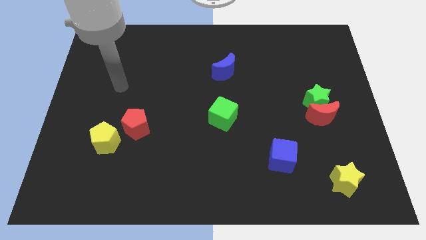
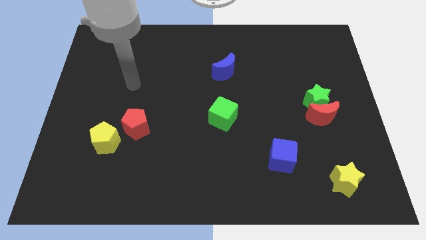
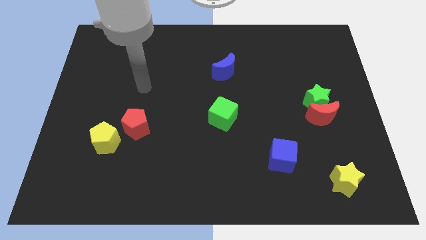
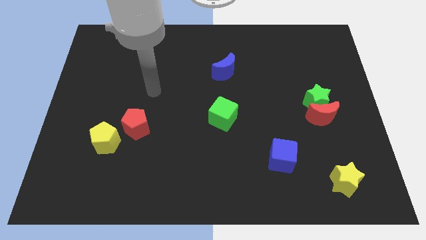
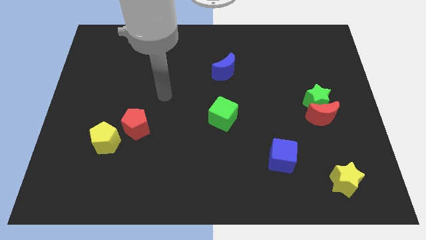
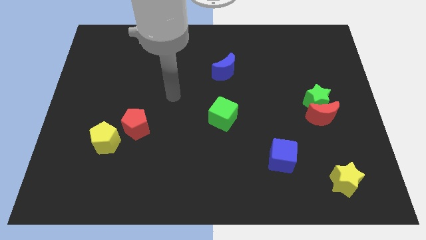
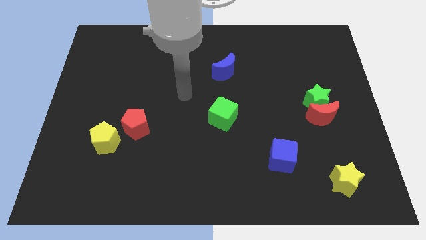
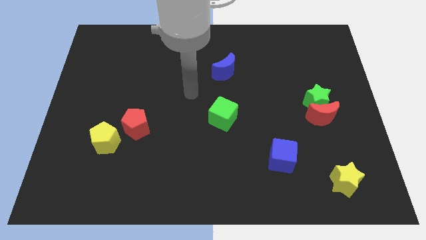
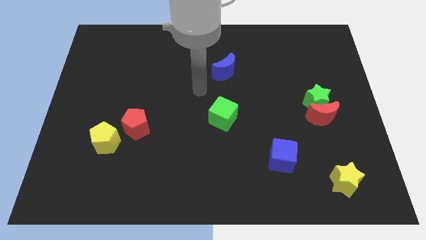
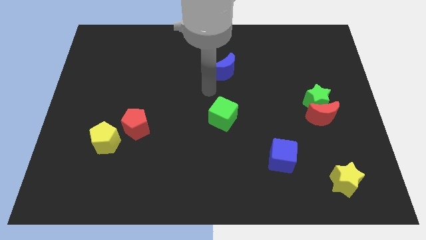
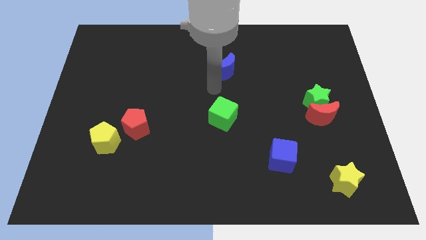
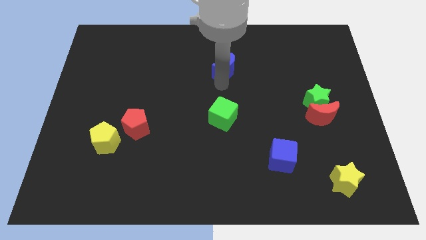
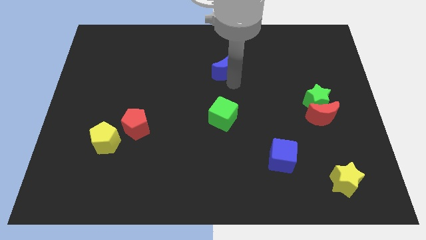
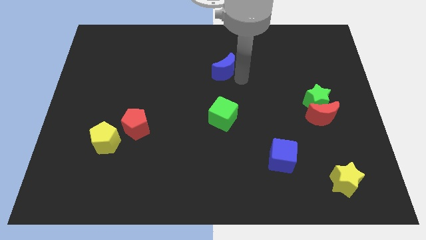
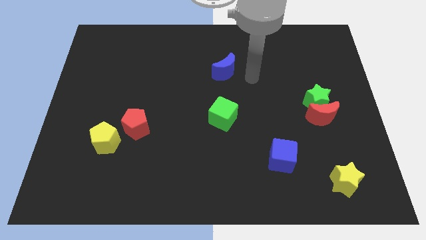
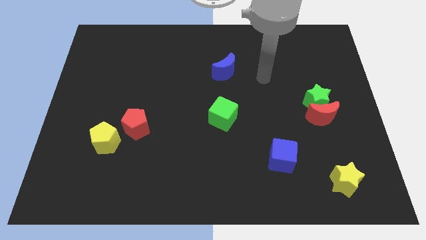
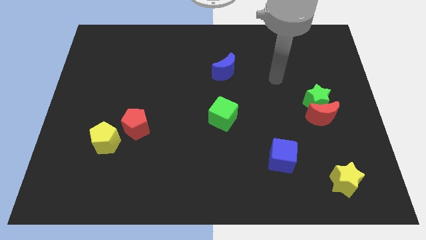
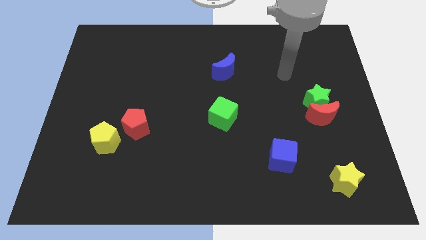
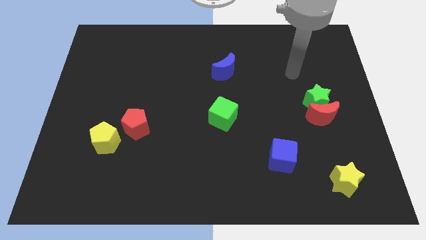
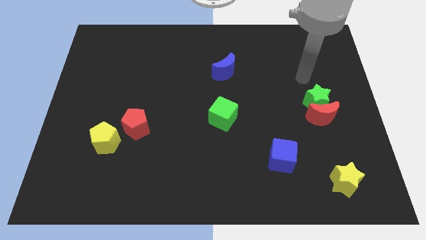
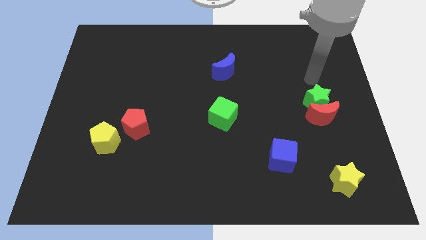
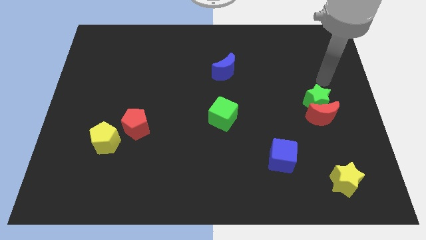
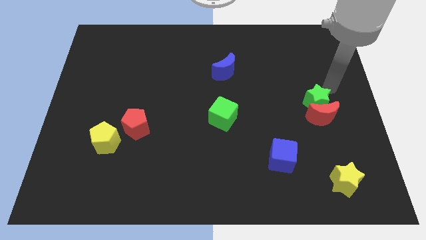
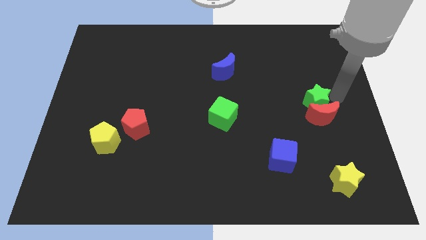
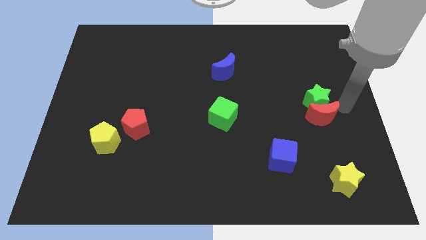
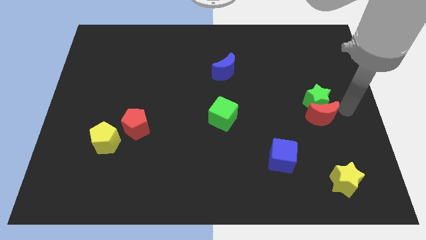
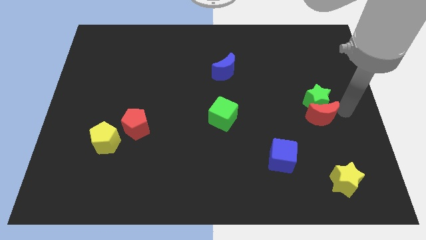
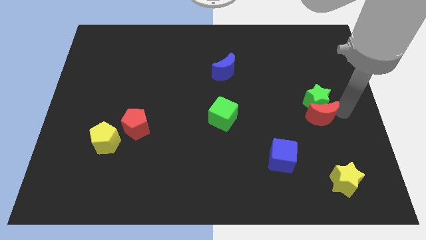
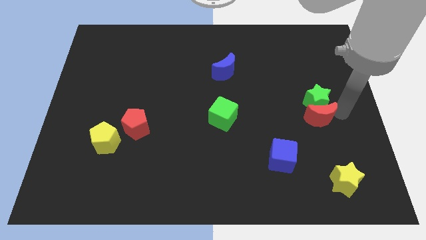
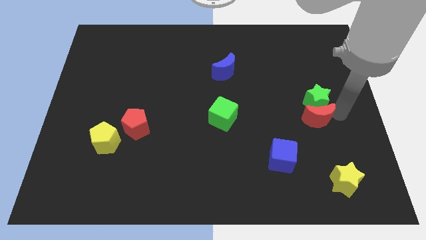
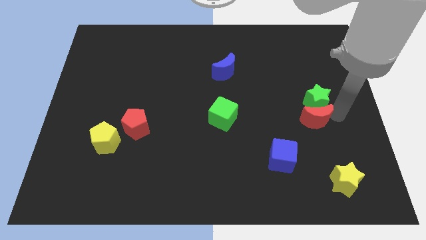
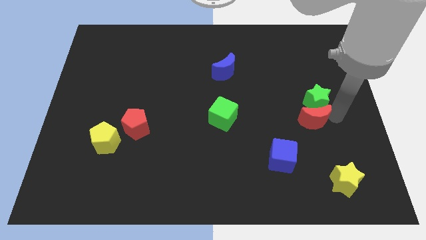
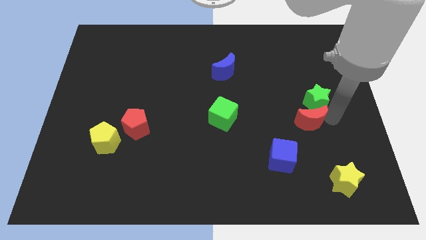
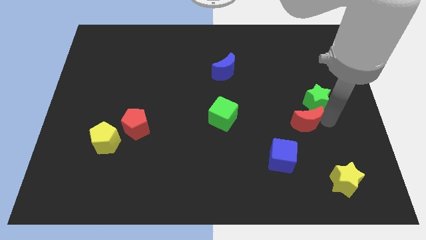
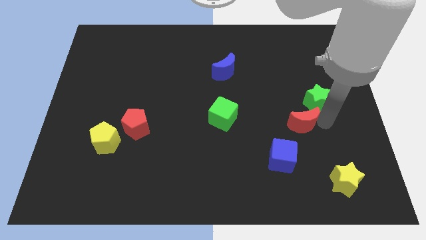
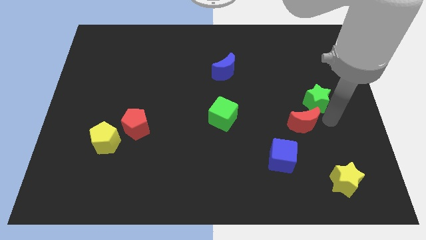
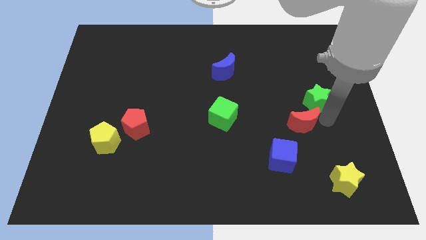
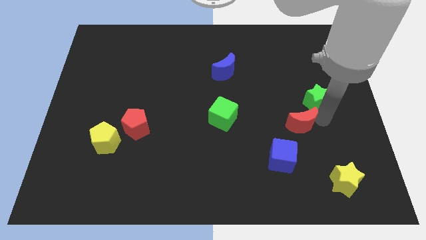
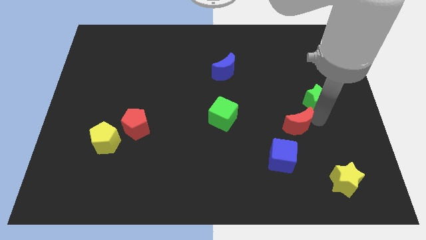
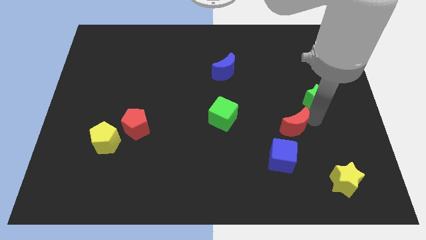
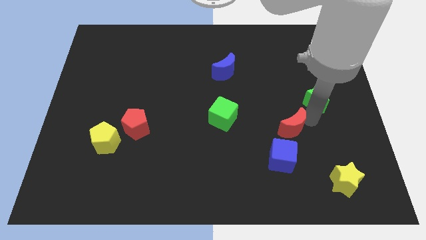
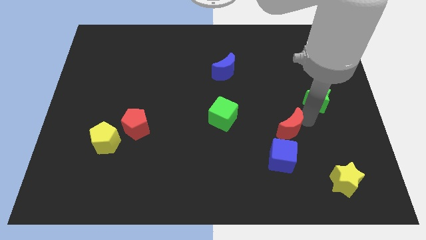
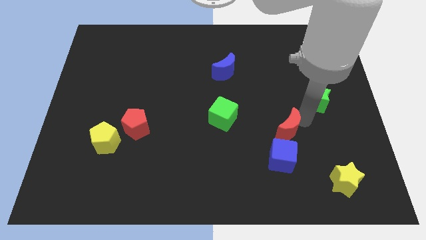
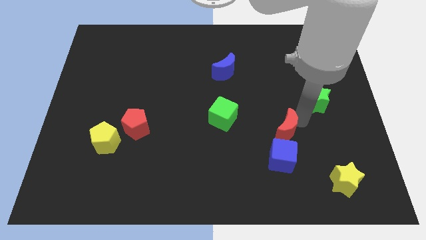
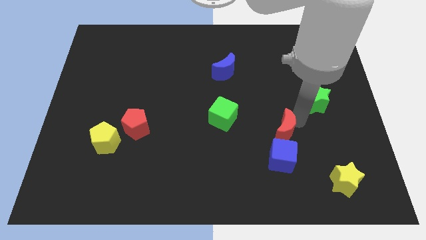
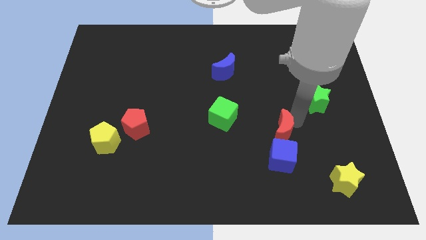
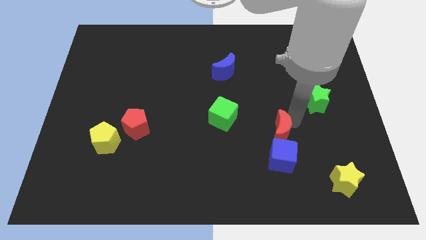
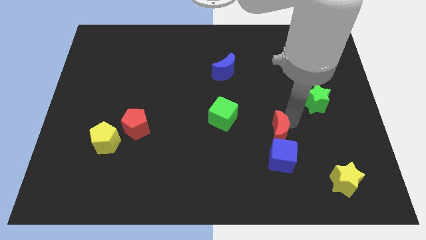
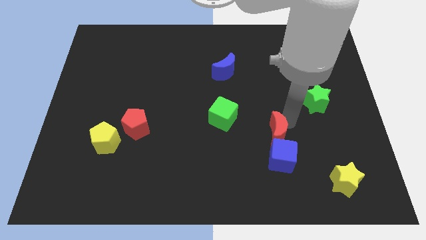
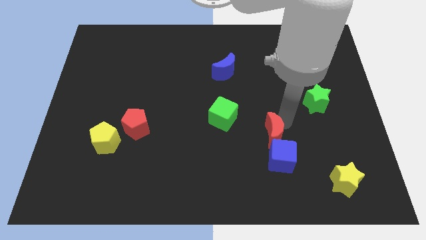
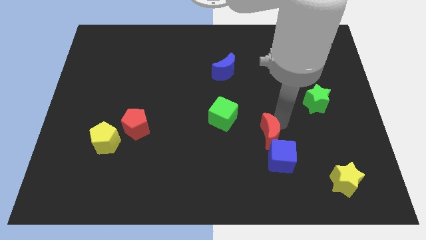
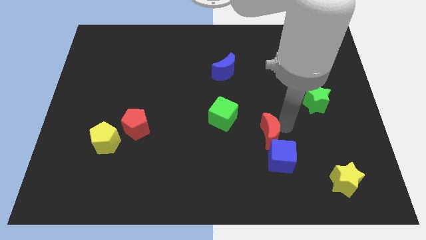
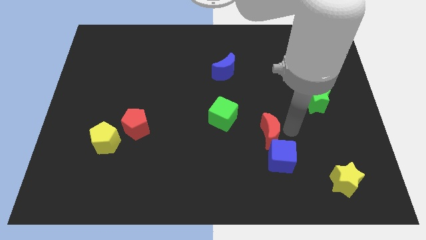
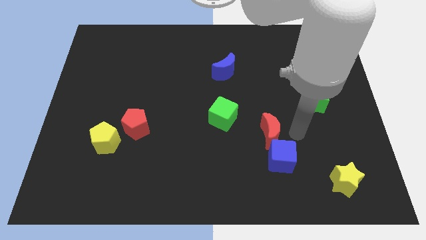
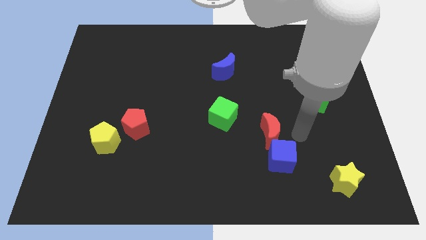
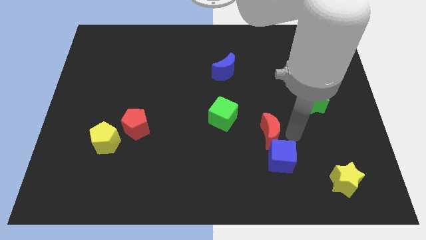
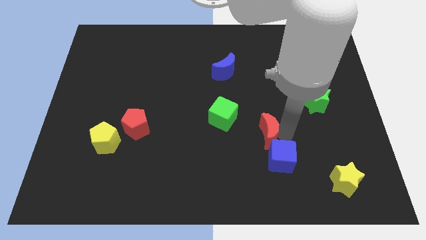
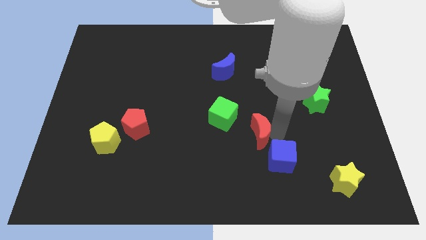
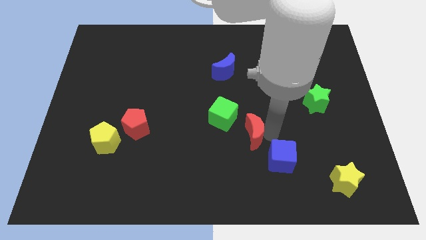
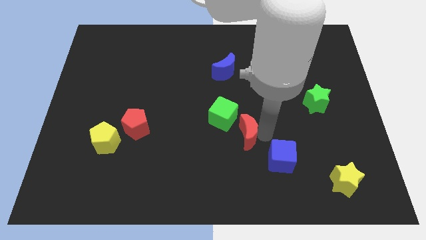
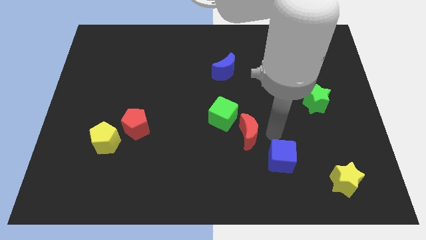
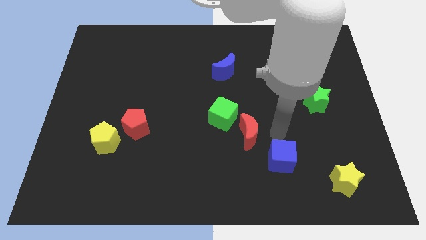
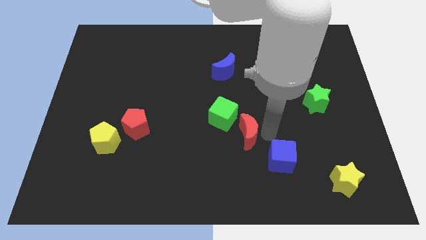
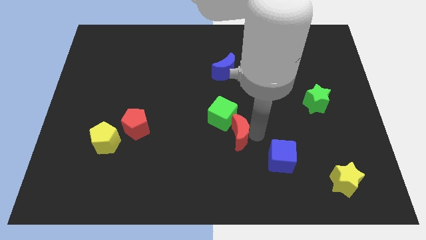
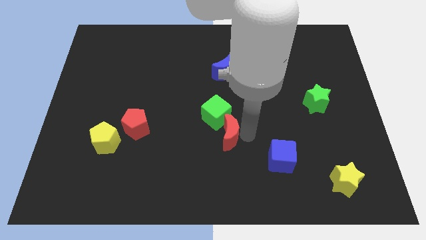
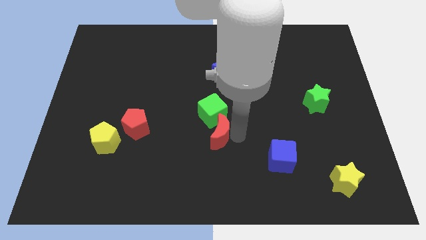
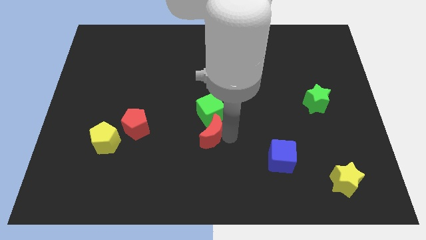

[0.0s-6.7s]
push the red moon to the bottom left of the green cube

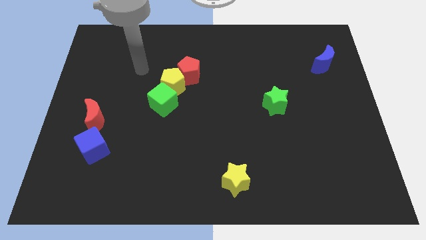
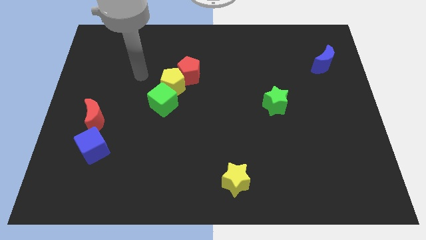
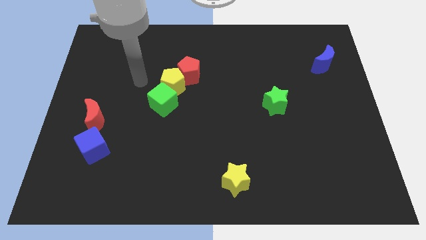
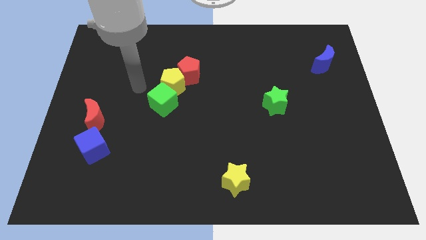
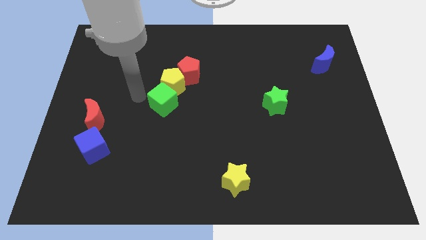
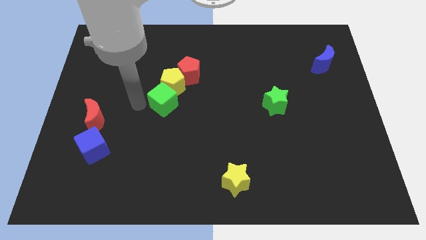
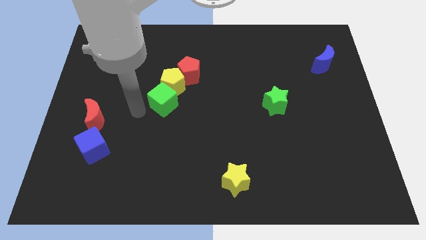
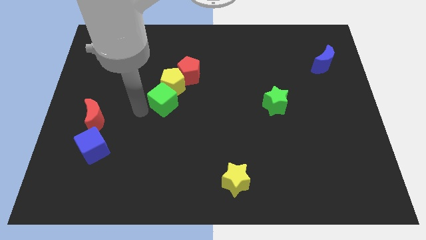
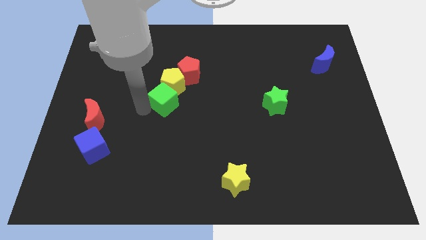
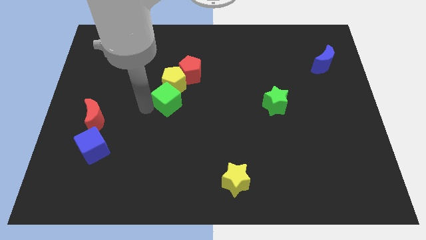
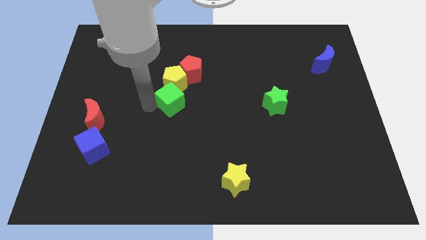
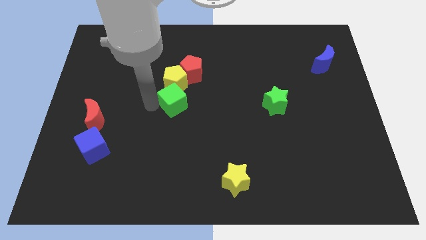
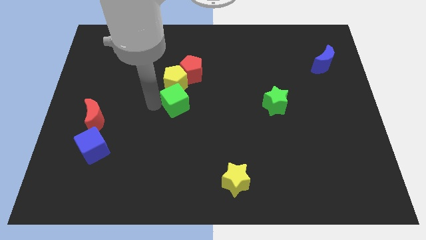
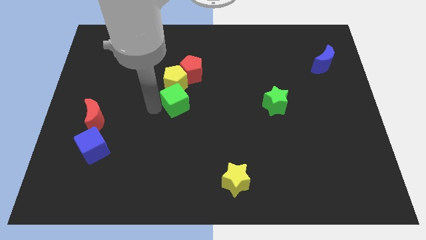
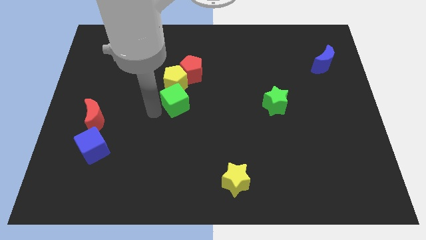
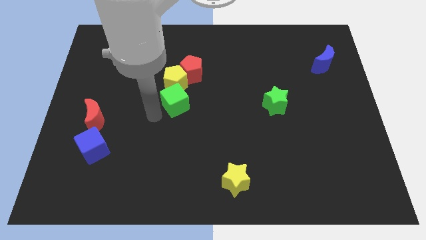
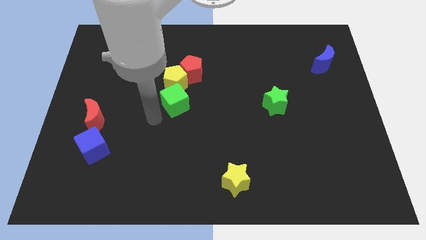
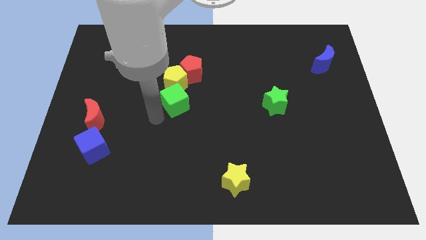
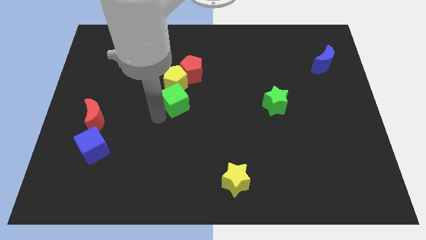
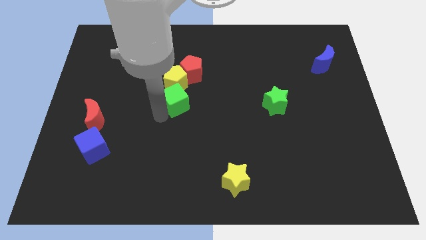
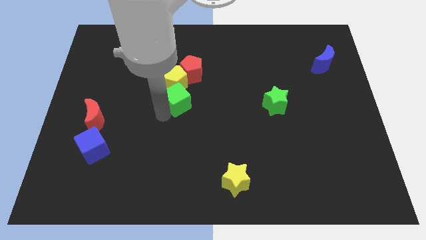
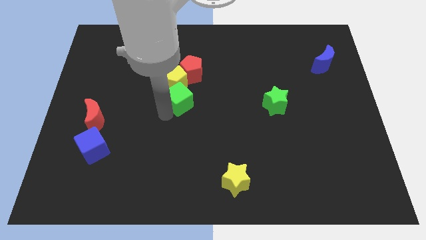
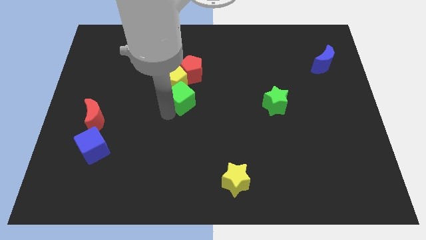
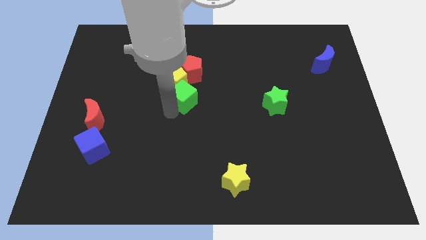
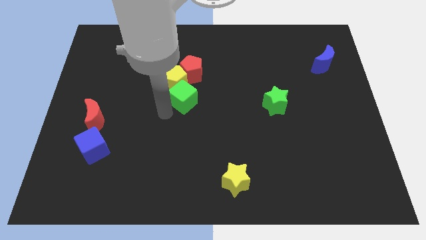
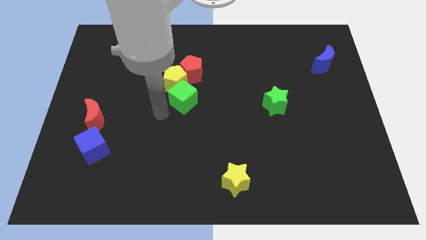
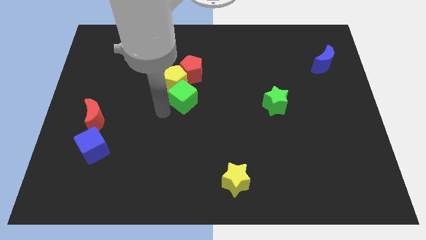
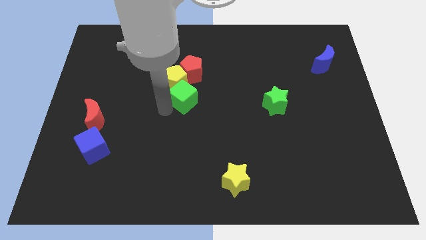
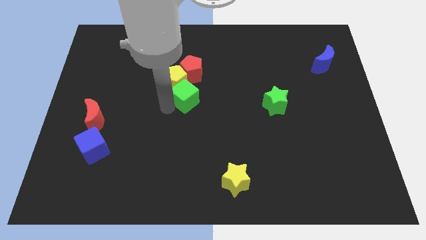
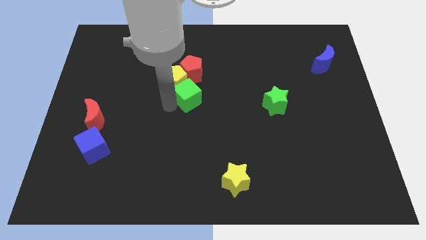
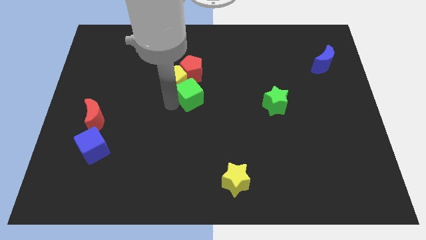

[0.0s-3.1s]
push the green cube to the right of the yellow pentagon
